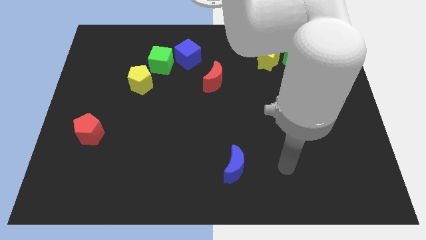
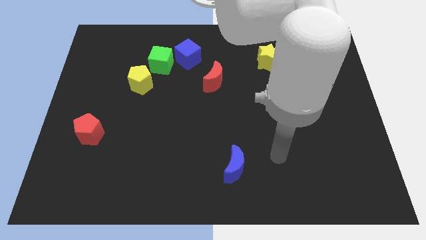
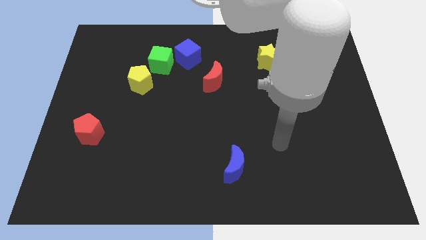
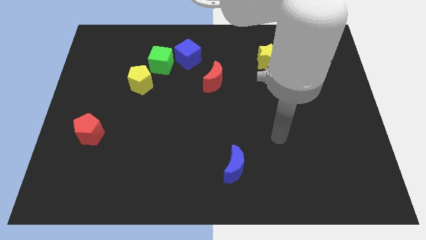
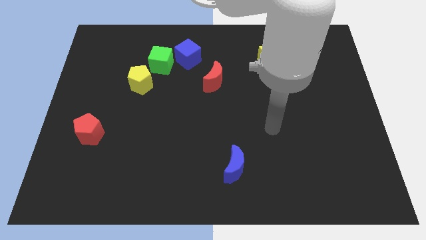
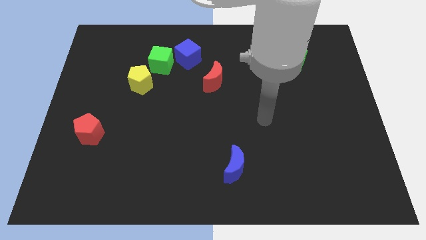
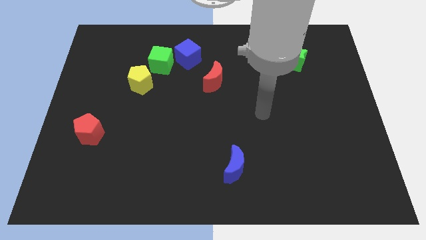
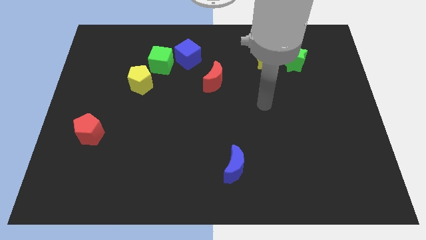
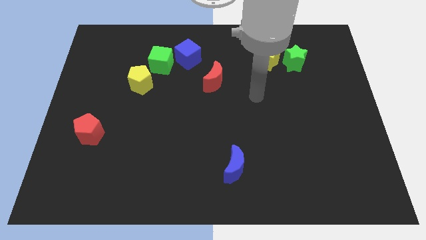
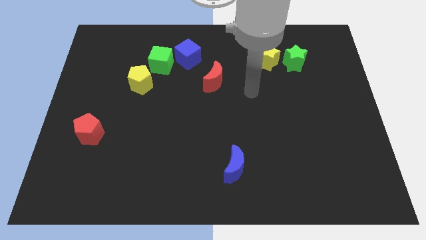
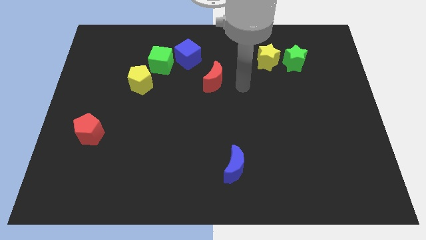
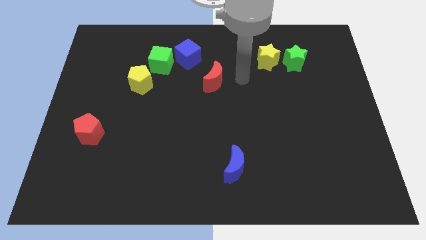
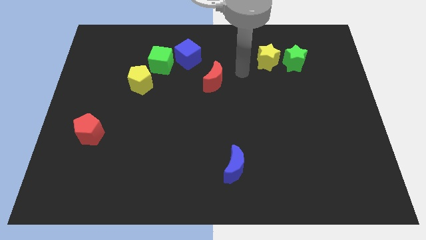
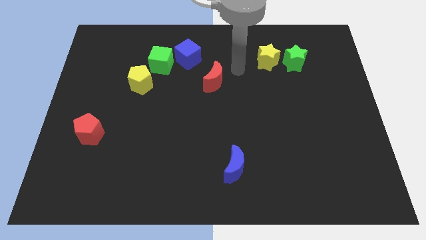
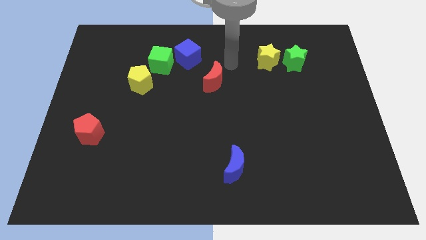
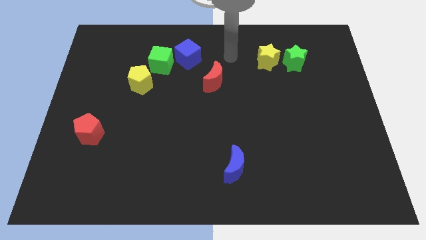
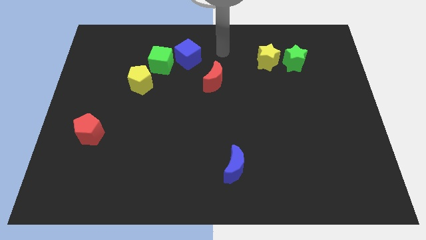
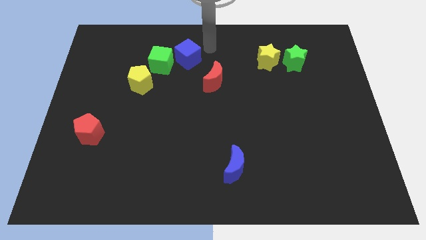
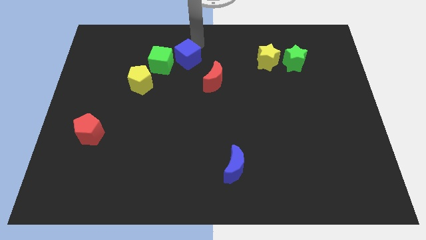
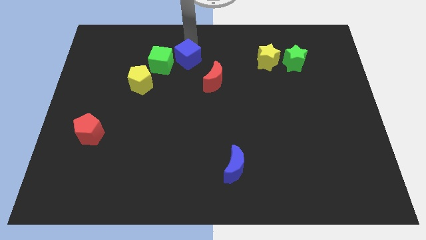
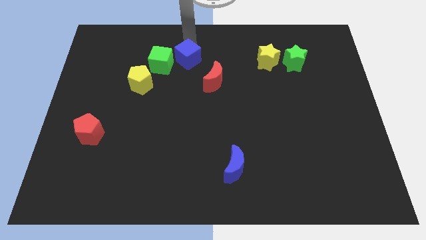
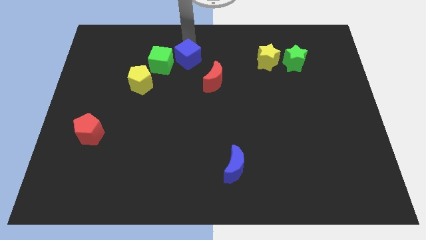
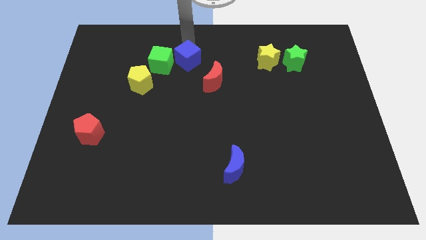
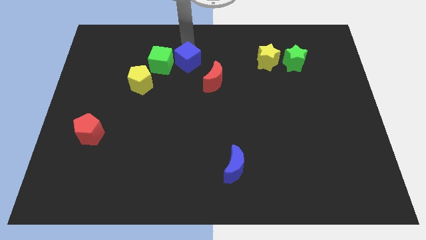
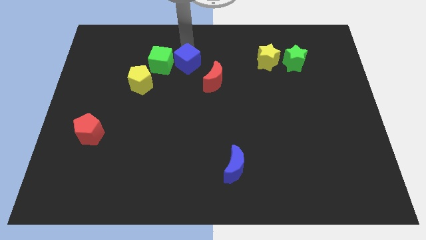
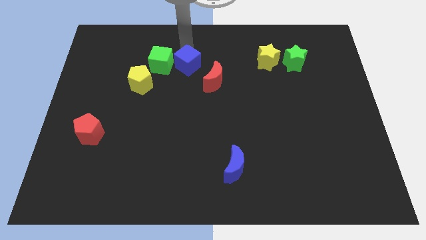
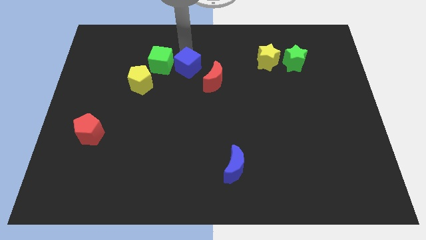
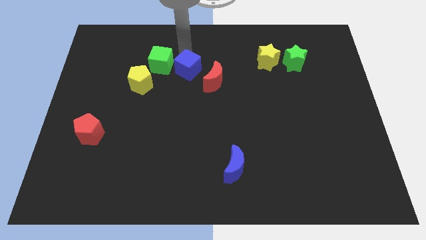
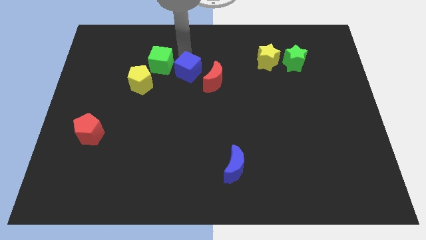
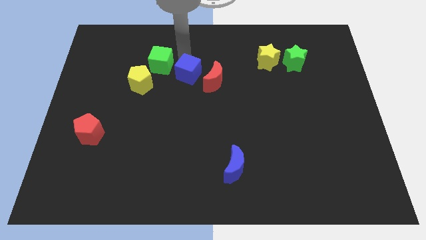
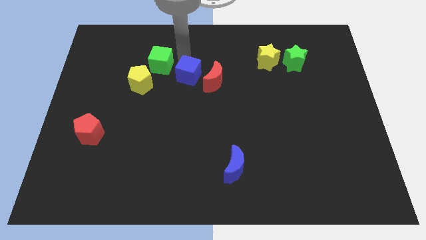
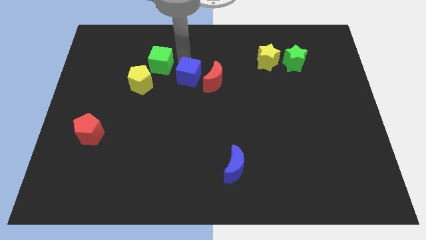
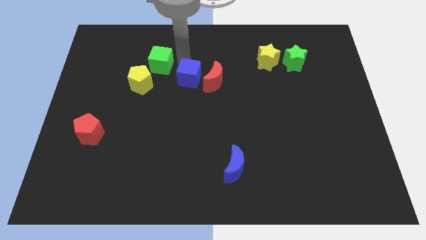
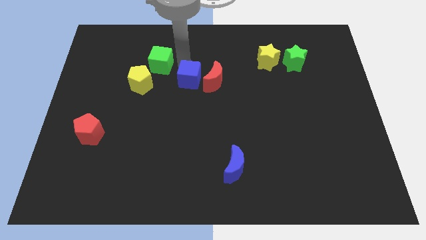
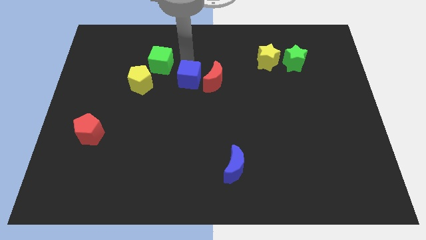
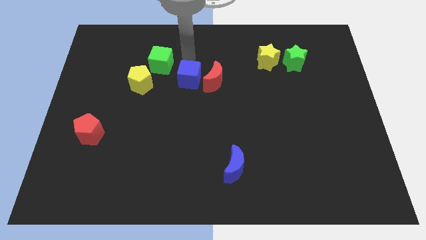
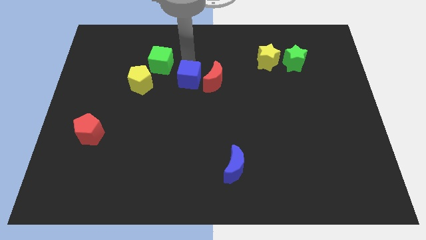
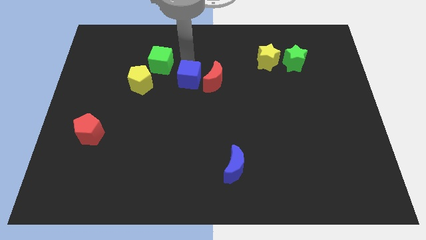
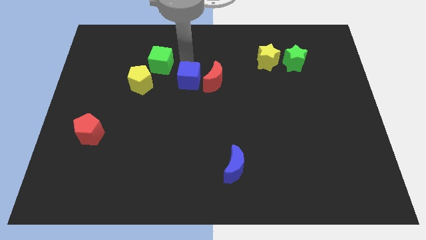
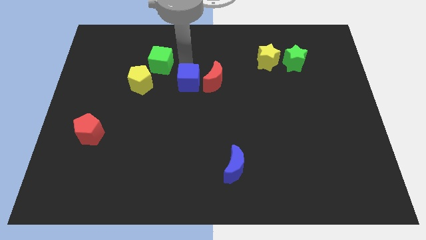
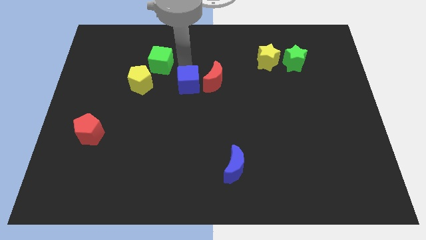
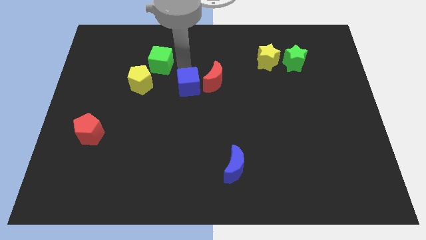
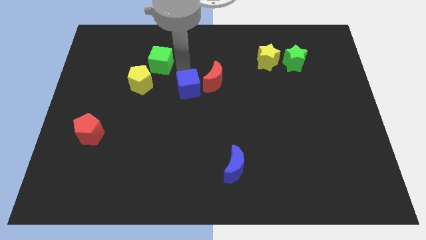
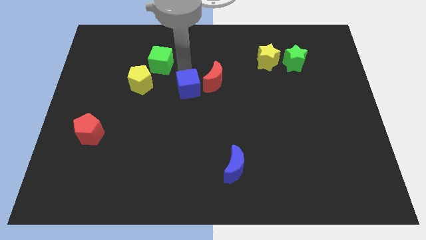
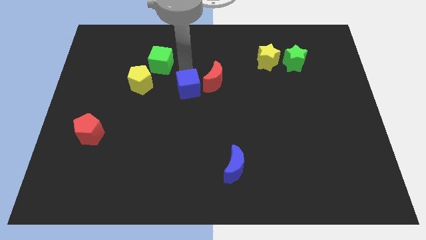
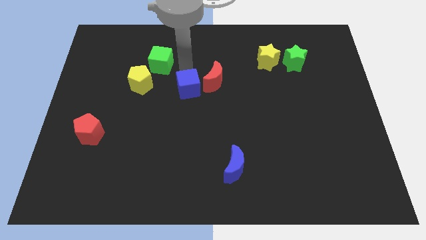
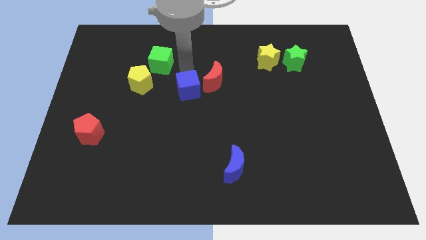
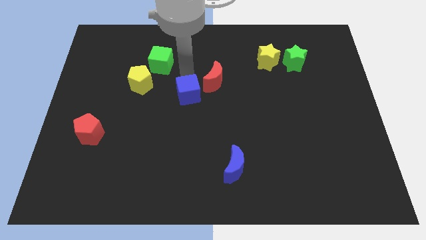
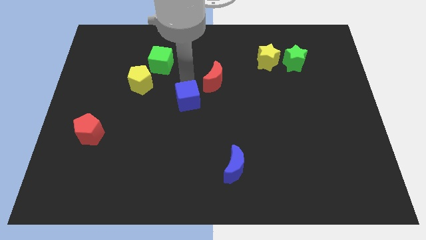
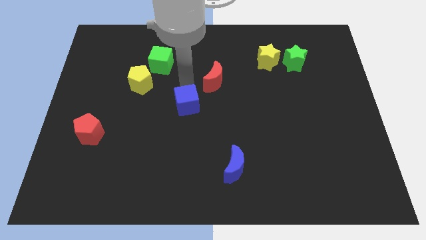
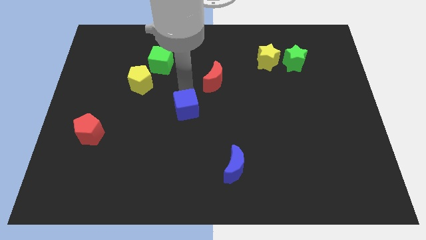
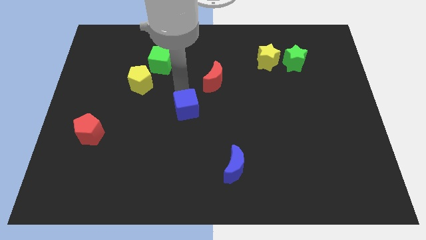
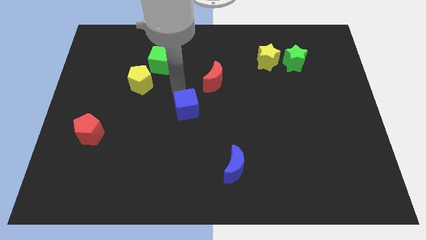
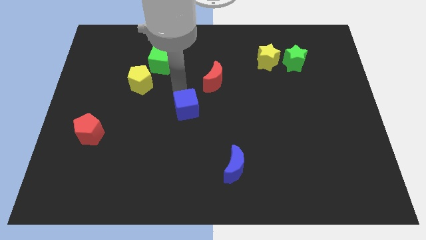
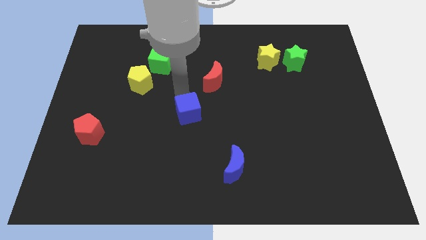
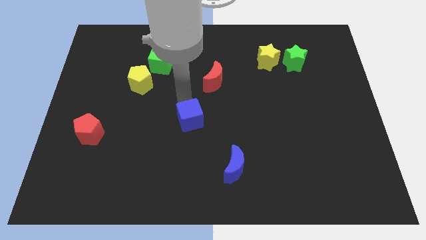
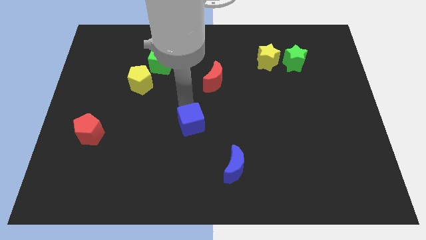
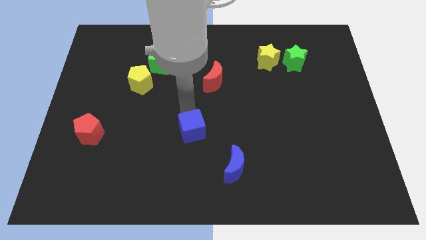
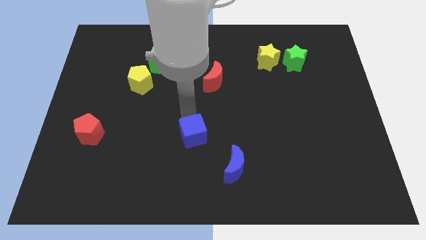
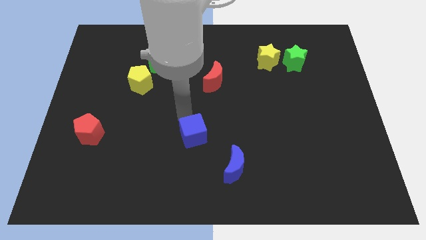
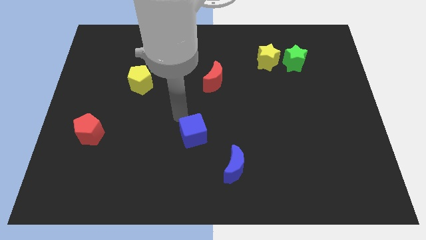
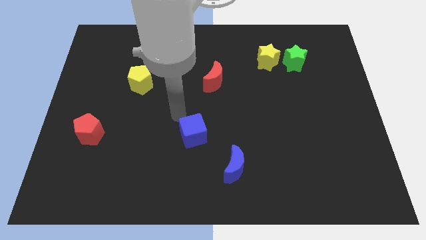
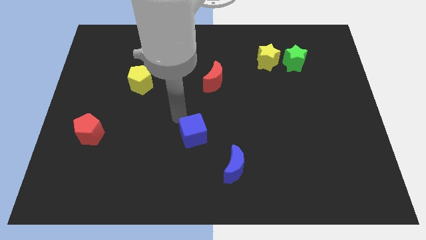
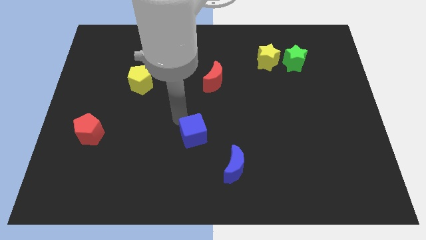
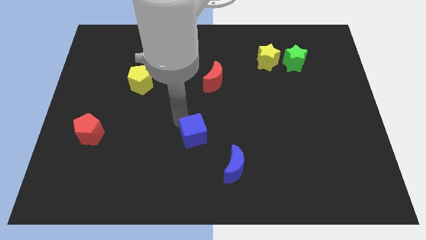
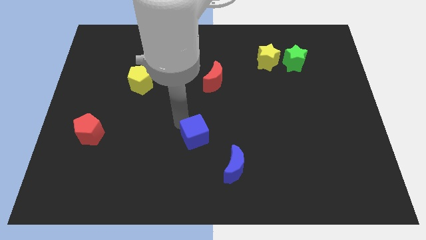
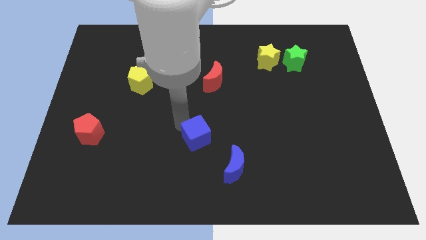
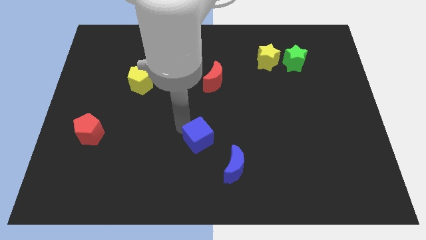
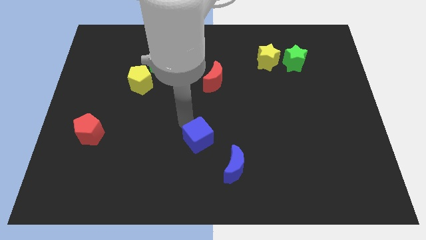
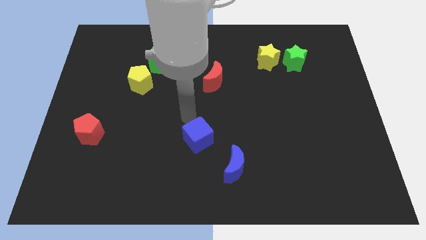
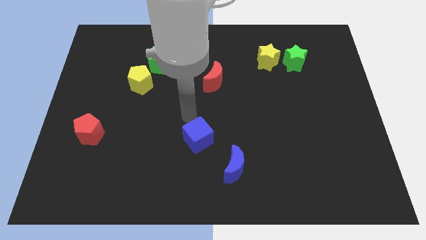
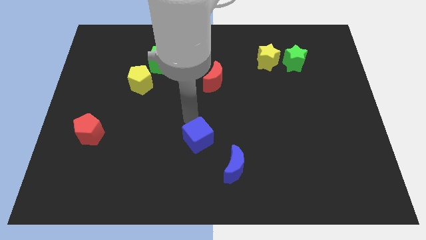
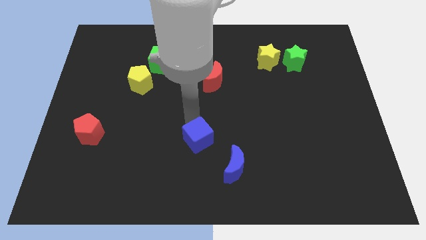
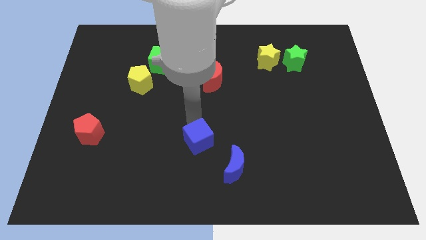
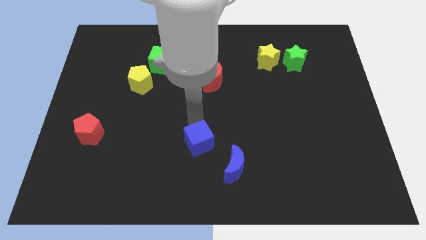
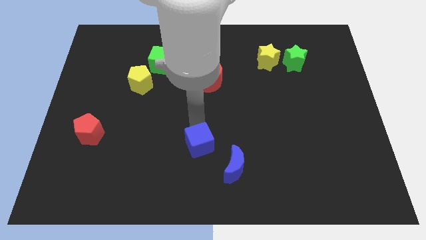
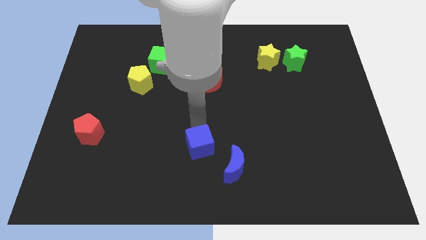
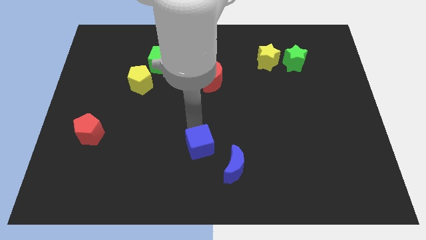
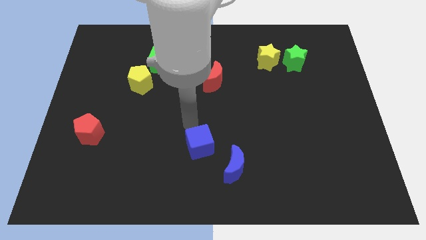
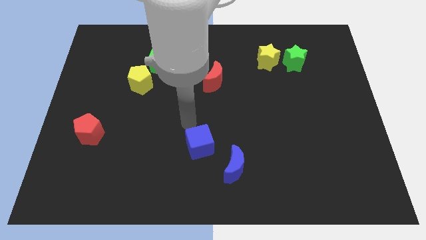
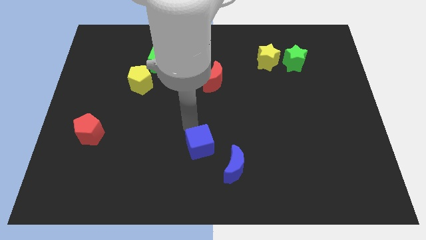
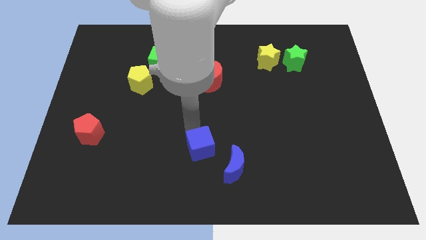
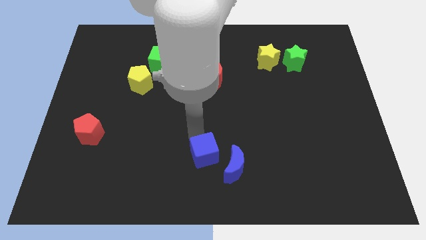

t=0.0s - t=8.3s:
put the blue cube to the bottom
